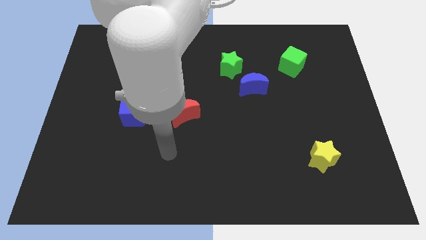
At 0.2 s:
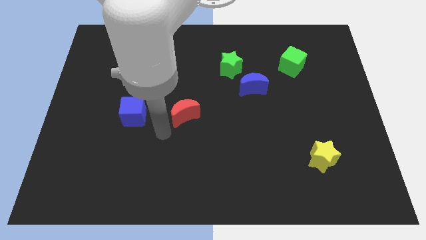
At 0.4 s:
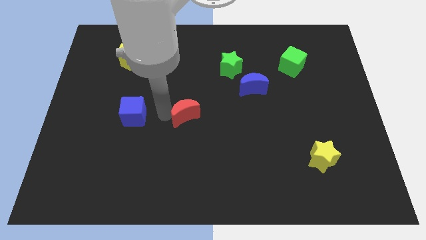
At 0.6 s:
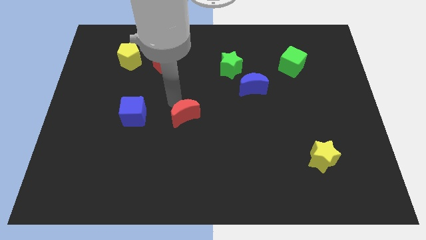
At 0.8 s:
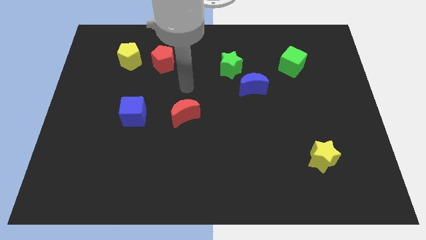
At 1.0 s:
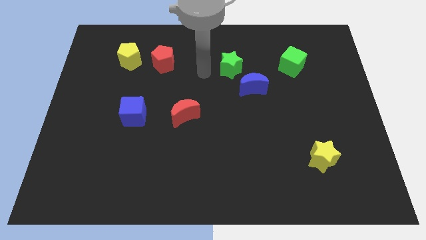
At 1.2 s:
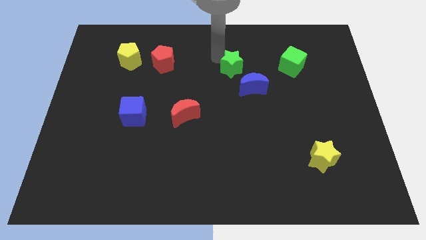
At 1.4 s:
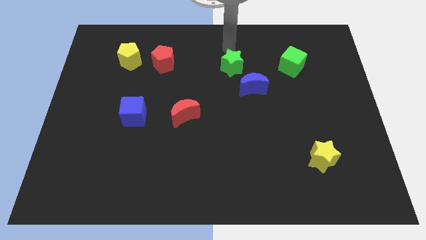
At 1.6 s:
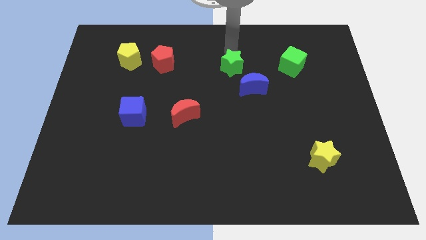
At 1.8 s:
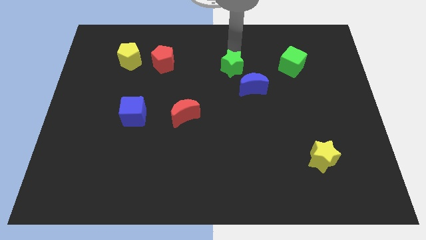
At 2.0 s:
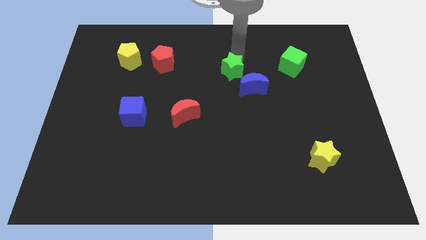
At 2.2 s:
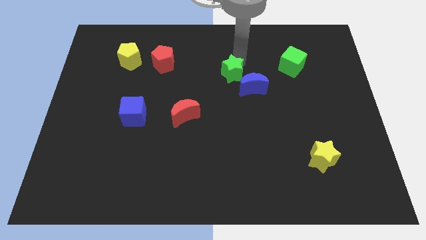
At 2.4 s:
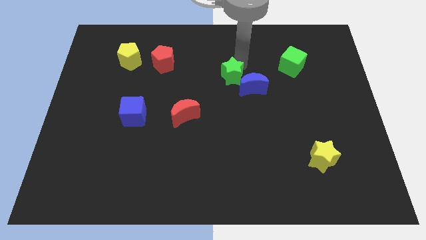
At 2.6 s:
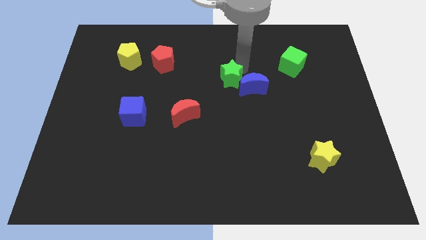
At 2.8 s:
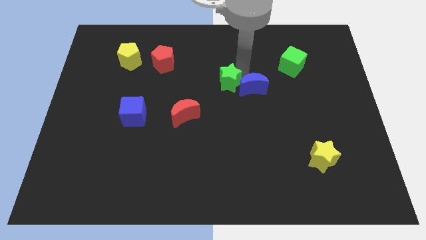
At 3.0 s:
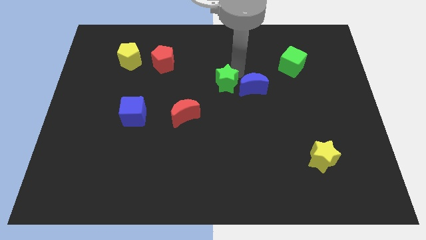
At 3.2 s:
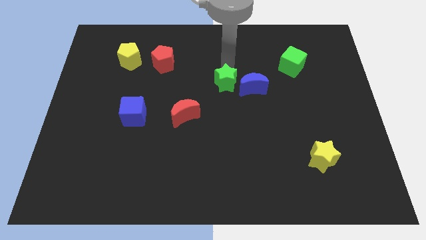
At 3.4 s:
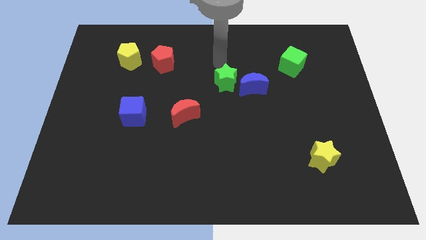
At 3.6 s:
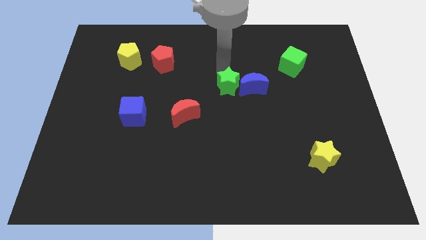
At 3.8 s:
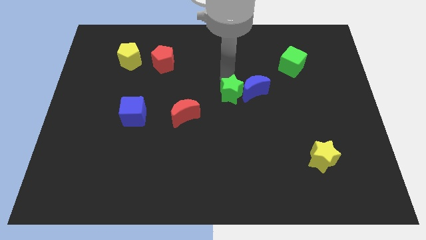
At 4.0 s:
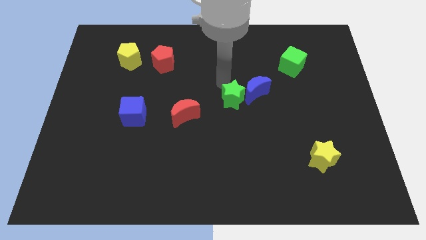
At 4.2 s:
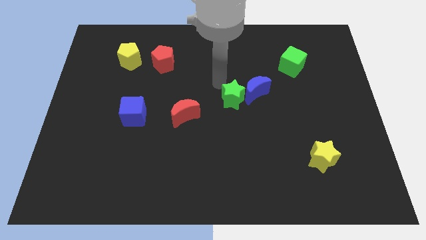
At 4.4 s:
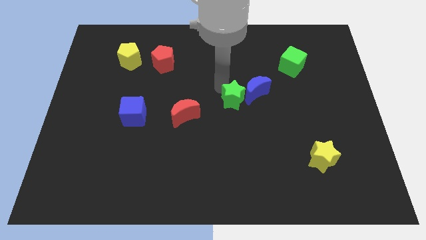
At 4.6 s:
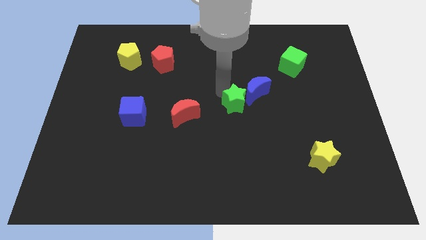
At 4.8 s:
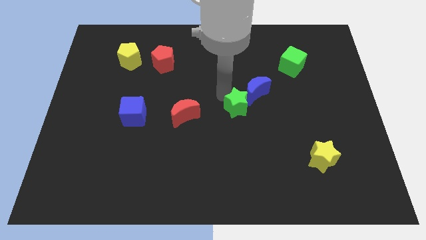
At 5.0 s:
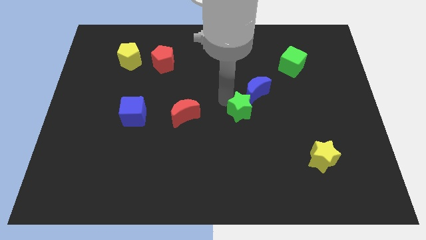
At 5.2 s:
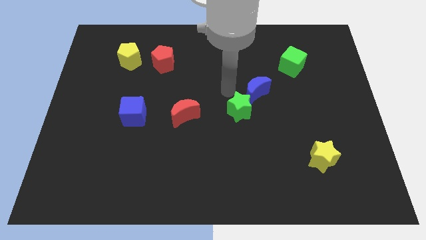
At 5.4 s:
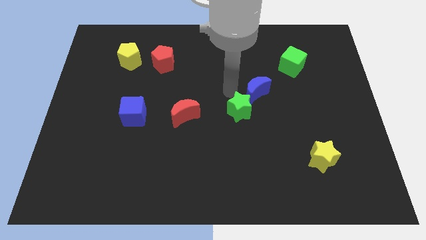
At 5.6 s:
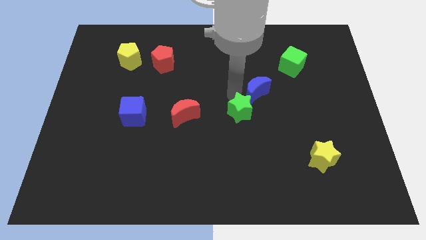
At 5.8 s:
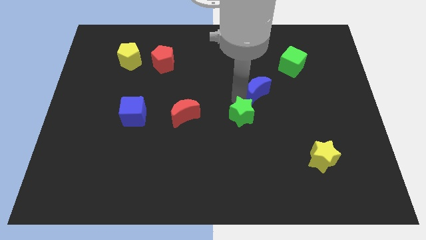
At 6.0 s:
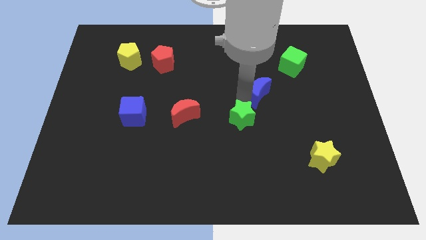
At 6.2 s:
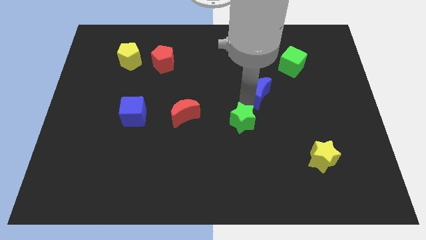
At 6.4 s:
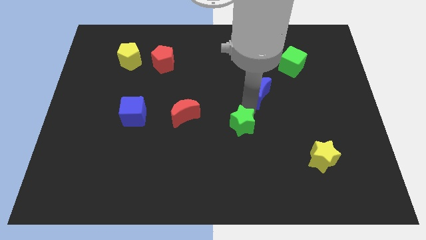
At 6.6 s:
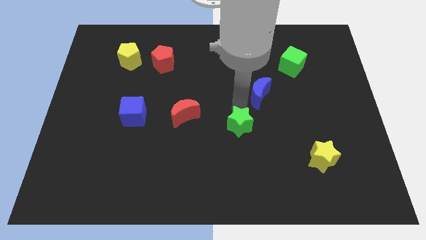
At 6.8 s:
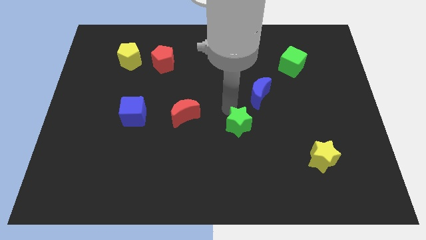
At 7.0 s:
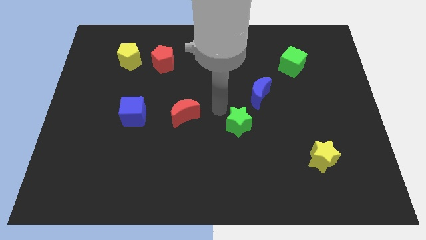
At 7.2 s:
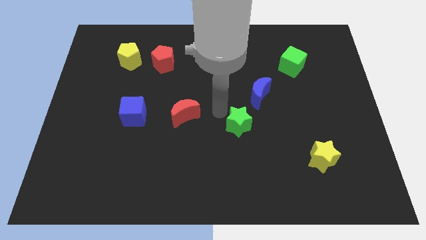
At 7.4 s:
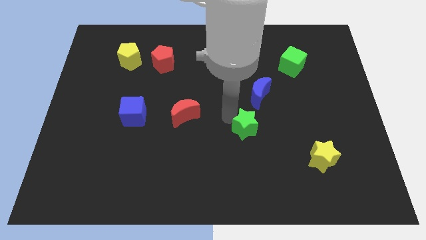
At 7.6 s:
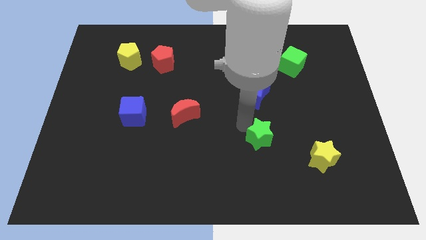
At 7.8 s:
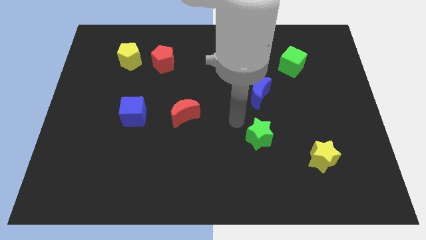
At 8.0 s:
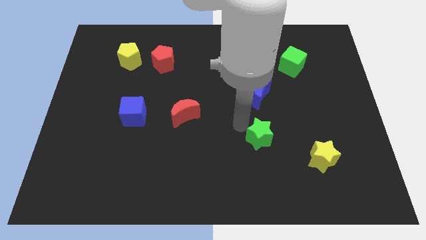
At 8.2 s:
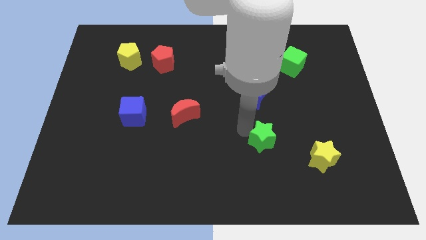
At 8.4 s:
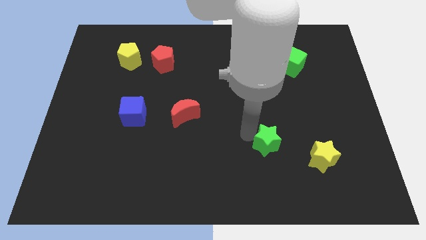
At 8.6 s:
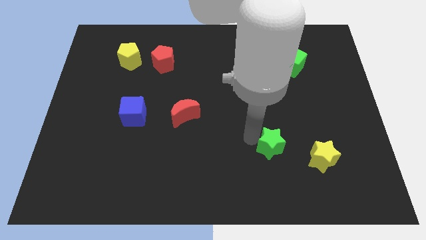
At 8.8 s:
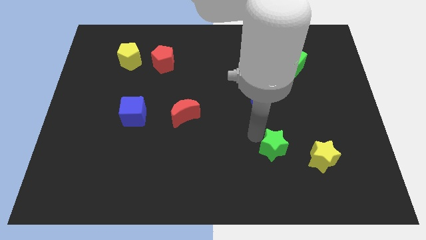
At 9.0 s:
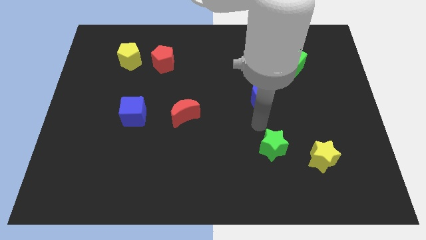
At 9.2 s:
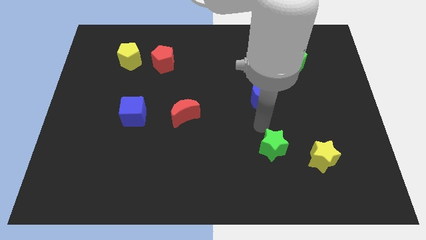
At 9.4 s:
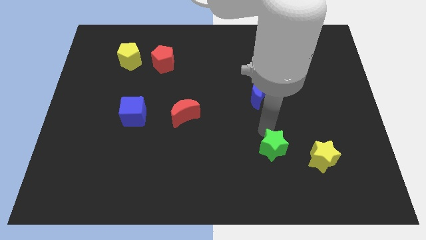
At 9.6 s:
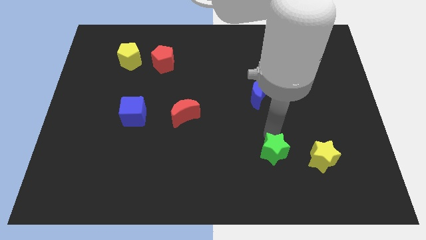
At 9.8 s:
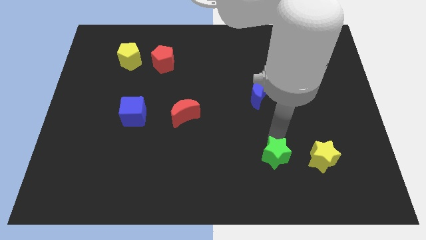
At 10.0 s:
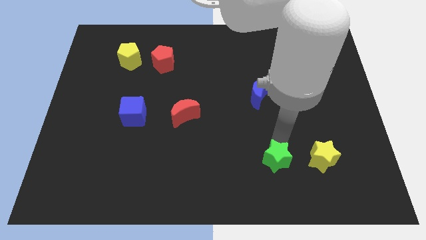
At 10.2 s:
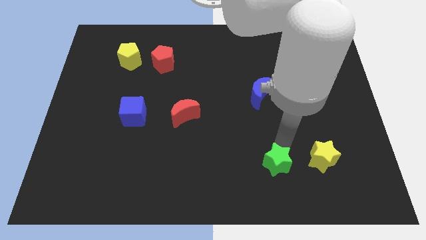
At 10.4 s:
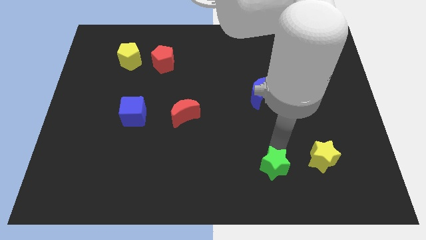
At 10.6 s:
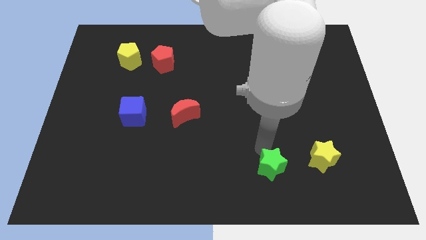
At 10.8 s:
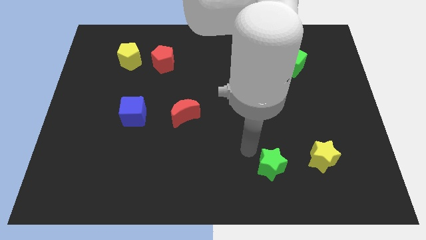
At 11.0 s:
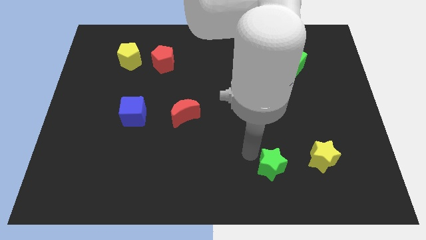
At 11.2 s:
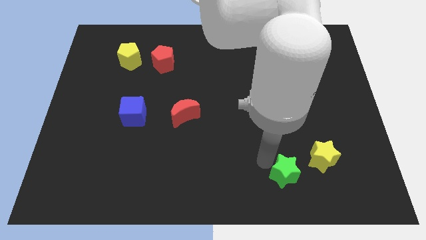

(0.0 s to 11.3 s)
slide the green star to the bottom left side of the yellow star

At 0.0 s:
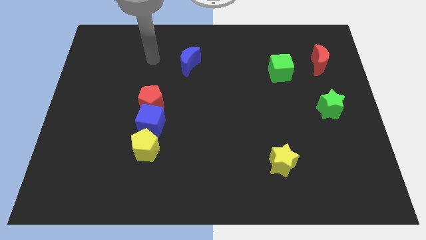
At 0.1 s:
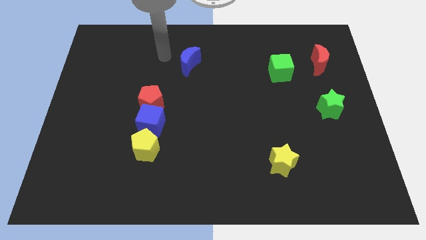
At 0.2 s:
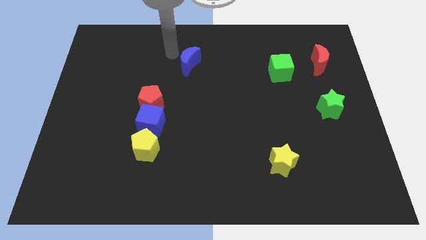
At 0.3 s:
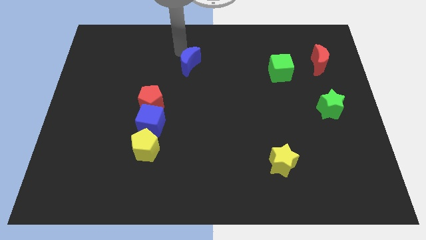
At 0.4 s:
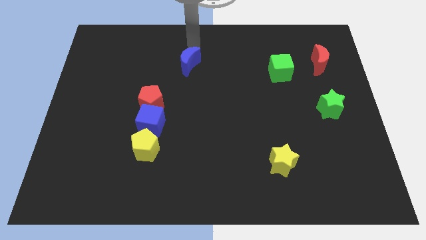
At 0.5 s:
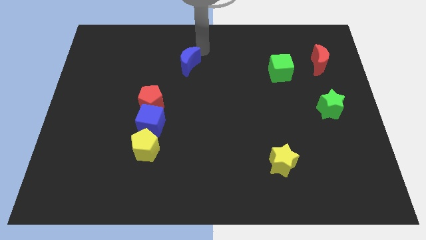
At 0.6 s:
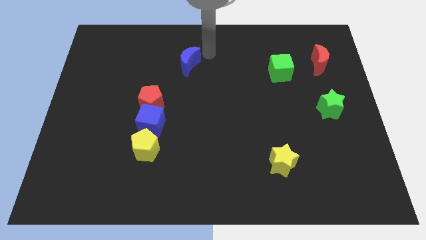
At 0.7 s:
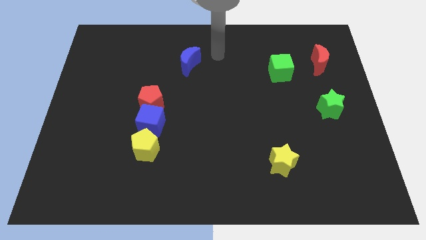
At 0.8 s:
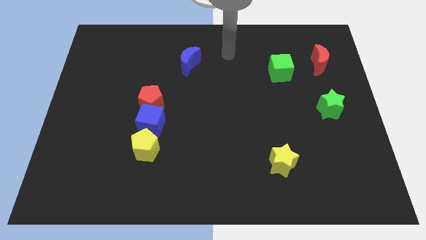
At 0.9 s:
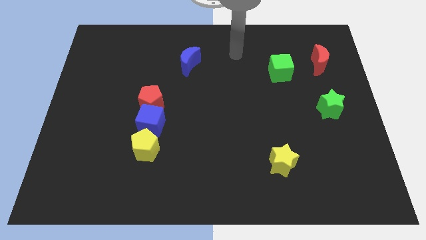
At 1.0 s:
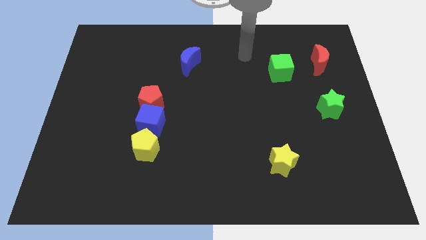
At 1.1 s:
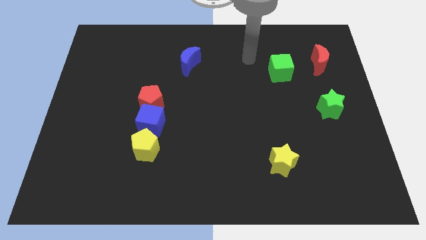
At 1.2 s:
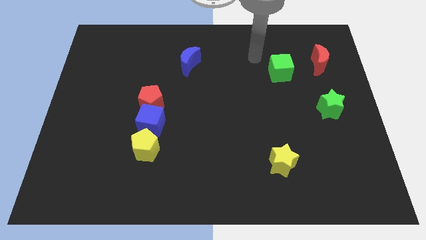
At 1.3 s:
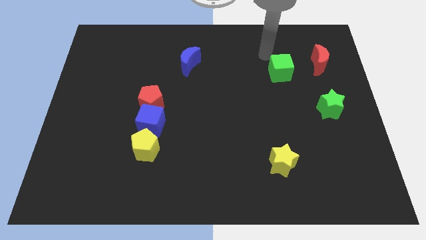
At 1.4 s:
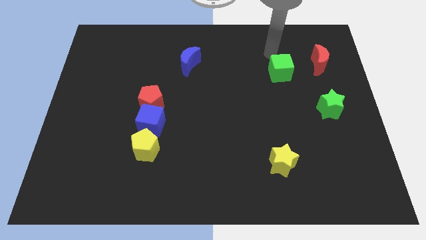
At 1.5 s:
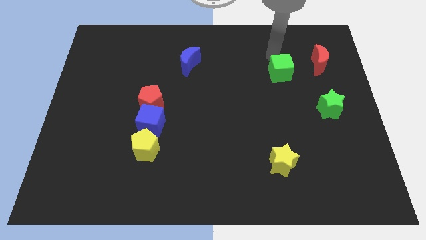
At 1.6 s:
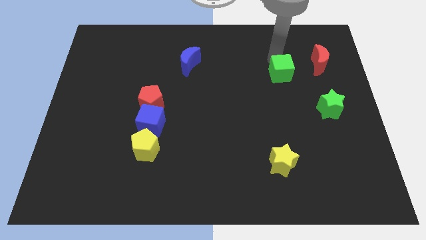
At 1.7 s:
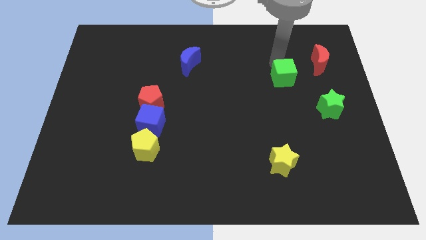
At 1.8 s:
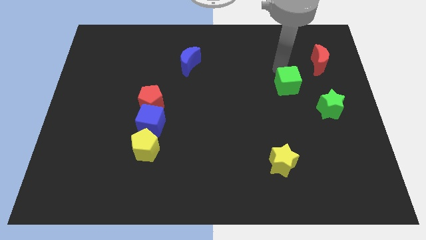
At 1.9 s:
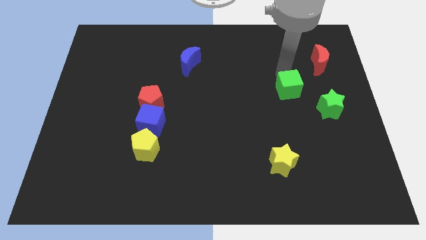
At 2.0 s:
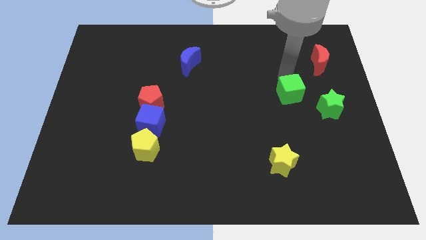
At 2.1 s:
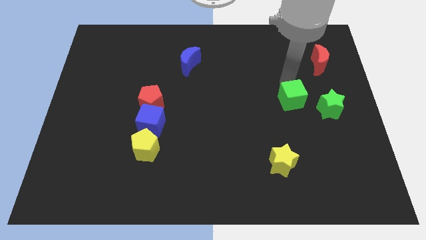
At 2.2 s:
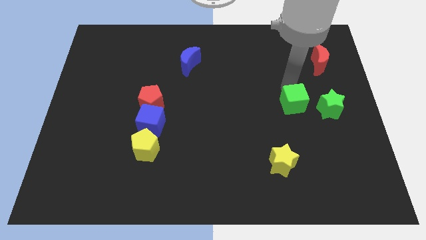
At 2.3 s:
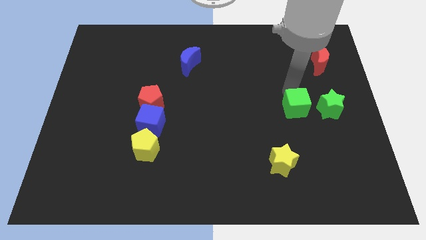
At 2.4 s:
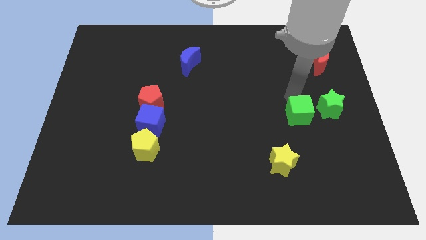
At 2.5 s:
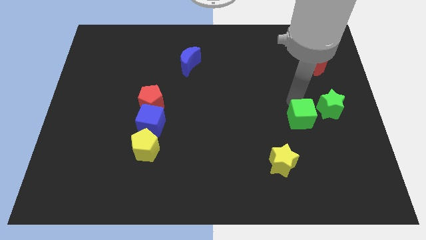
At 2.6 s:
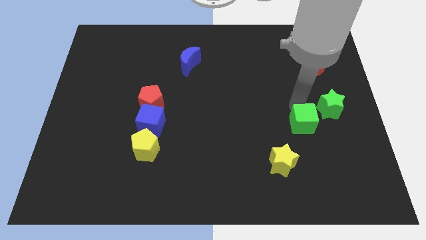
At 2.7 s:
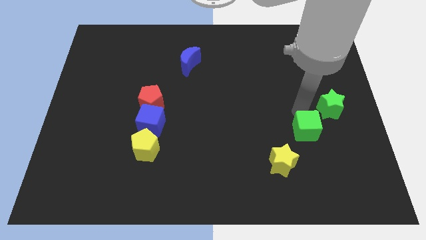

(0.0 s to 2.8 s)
slide the green cube to the top right side of the yellow star
